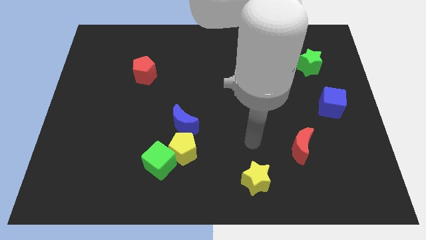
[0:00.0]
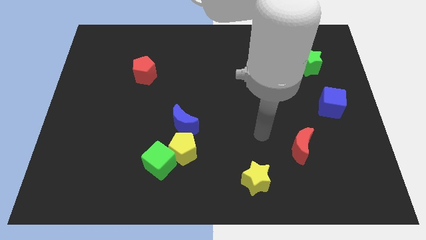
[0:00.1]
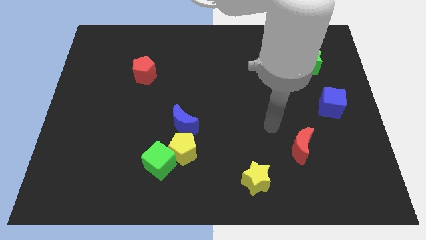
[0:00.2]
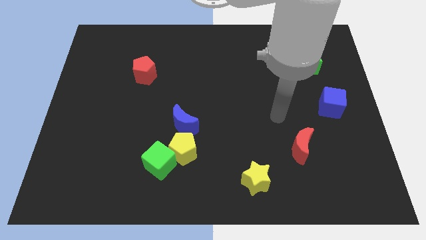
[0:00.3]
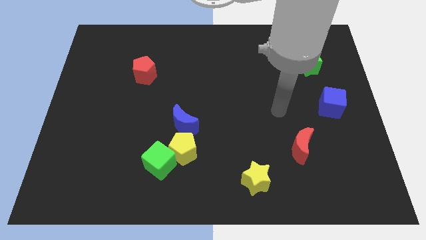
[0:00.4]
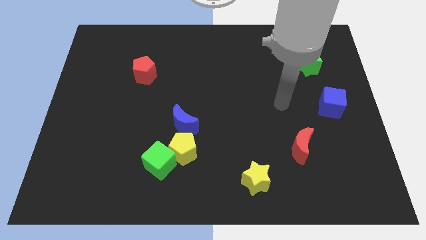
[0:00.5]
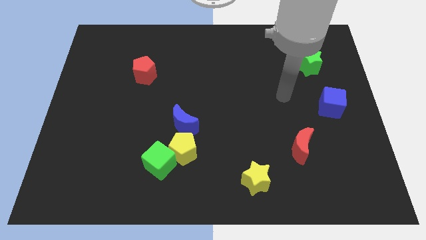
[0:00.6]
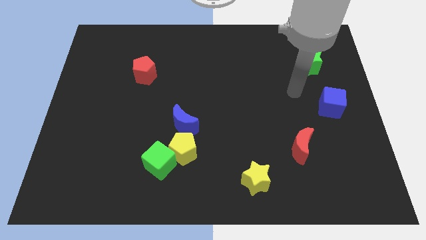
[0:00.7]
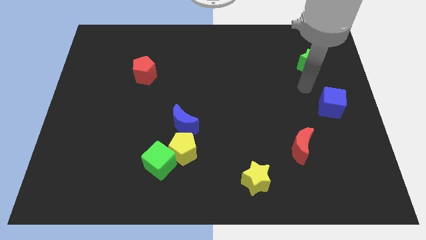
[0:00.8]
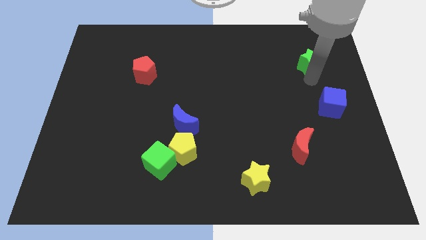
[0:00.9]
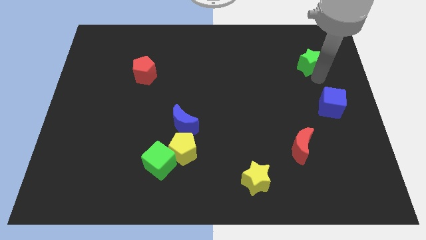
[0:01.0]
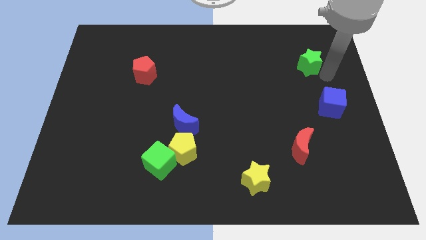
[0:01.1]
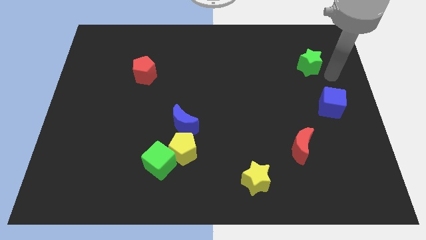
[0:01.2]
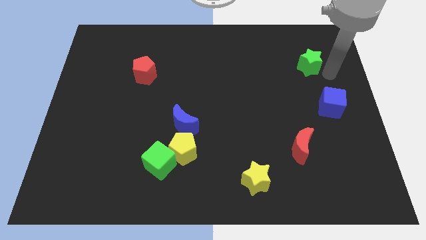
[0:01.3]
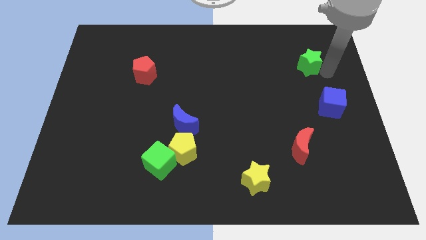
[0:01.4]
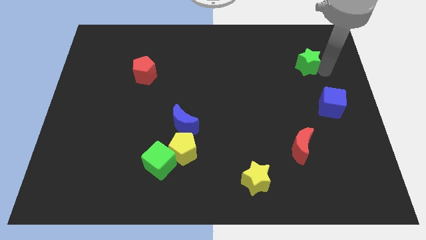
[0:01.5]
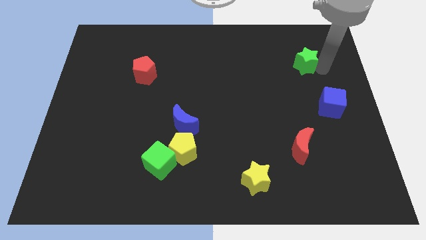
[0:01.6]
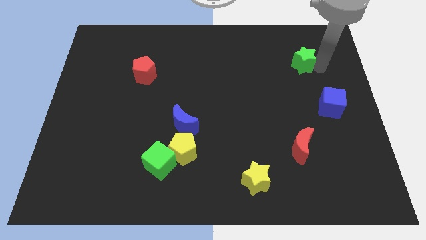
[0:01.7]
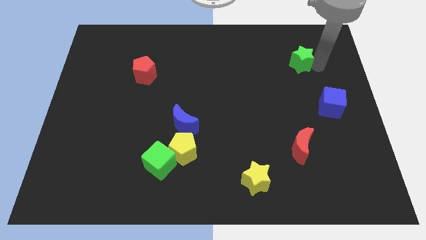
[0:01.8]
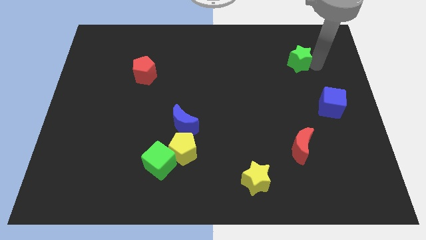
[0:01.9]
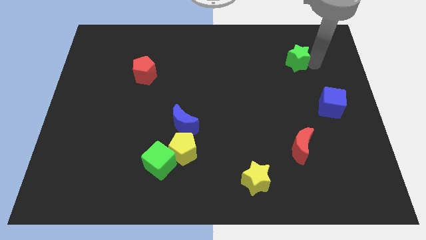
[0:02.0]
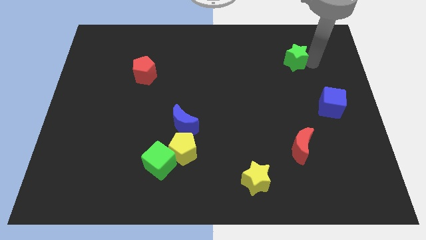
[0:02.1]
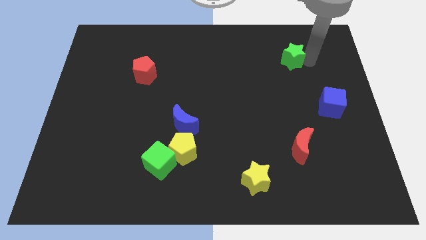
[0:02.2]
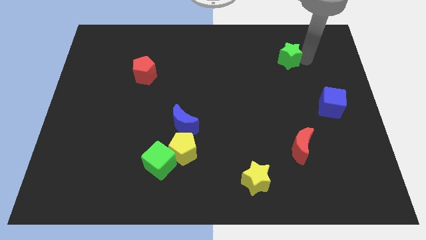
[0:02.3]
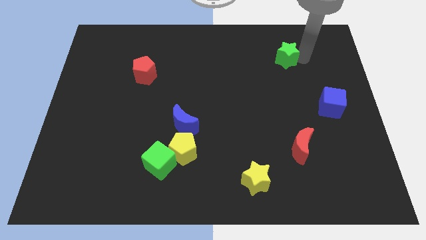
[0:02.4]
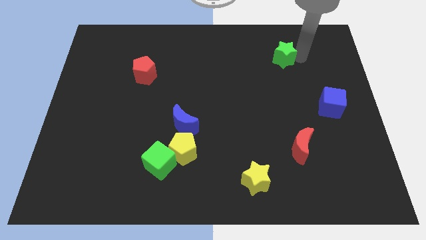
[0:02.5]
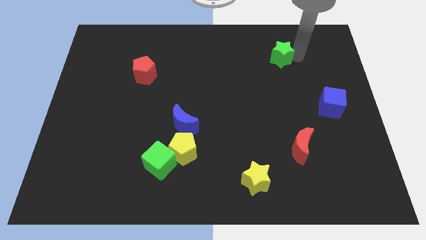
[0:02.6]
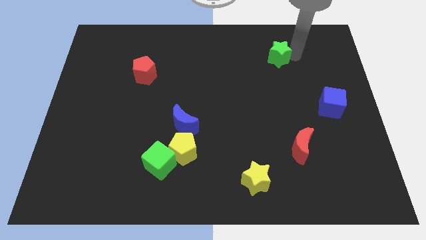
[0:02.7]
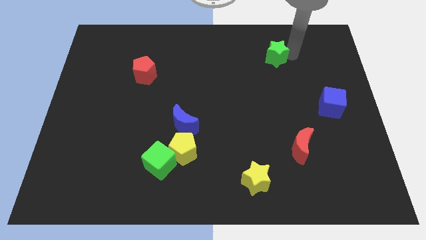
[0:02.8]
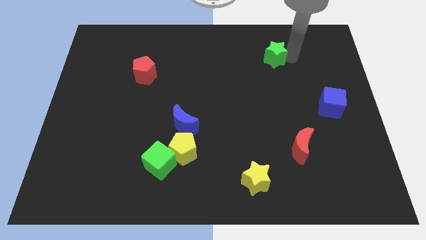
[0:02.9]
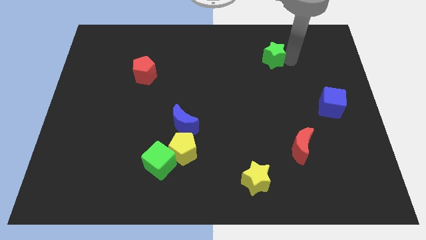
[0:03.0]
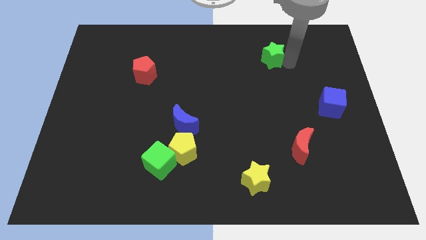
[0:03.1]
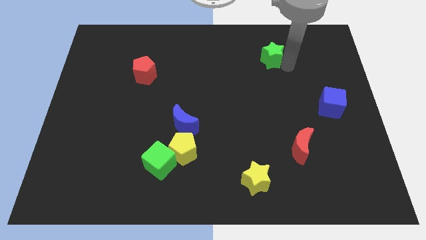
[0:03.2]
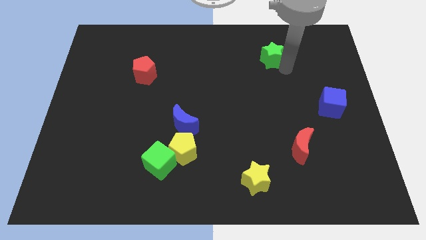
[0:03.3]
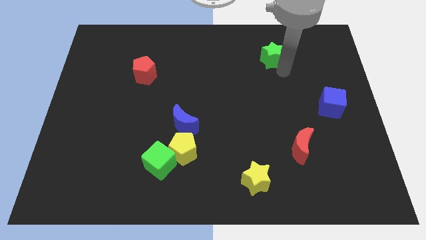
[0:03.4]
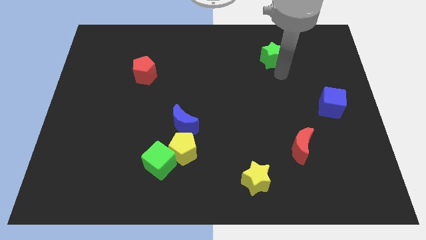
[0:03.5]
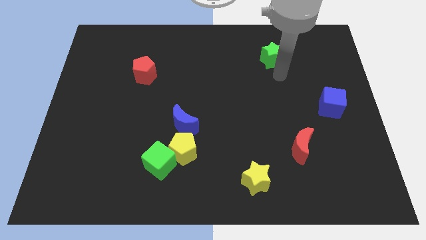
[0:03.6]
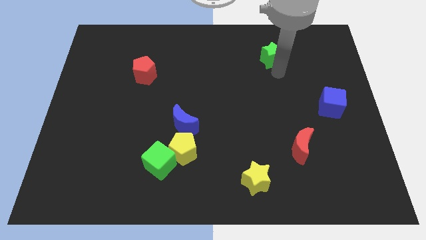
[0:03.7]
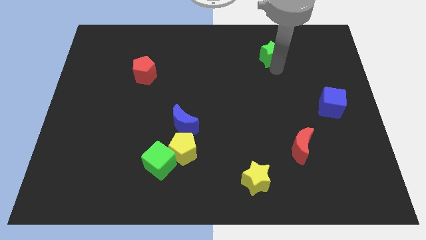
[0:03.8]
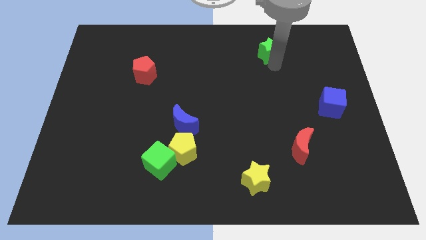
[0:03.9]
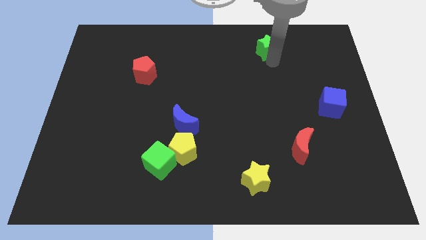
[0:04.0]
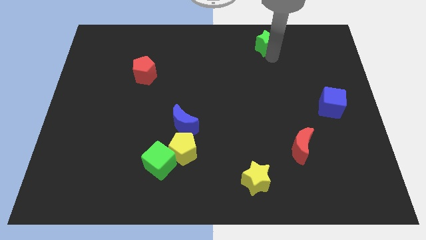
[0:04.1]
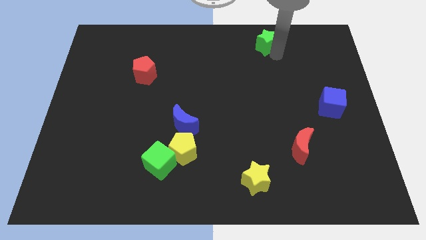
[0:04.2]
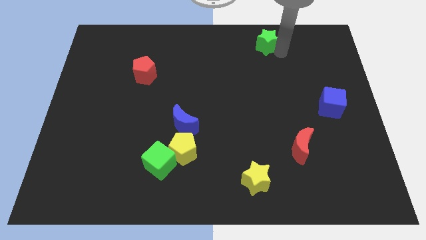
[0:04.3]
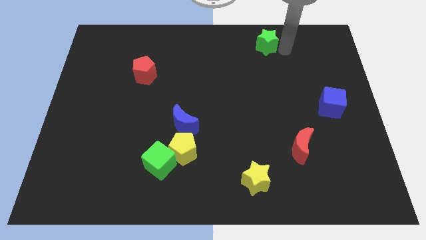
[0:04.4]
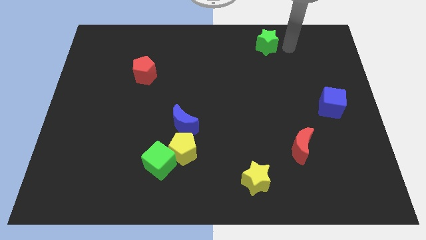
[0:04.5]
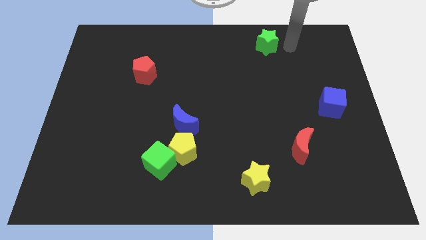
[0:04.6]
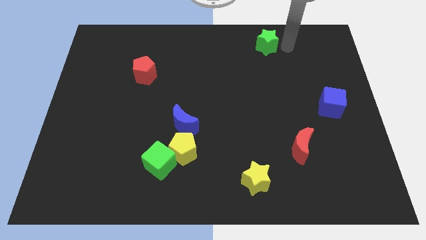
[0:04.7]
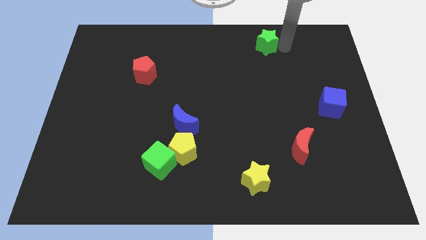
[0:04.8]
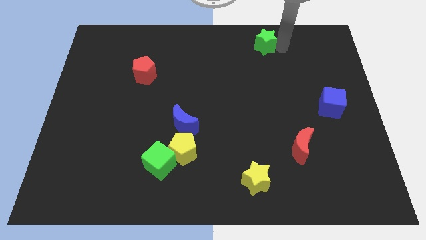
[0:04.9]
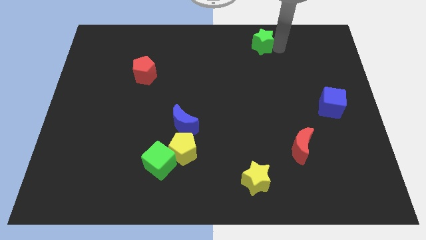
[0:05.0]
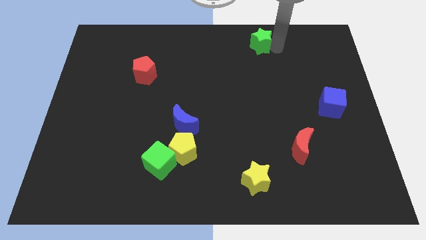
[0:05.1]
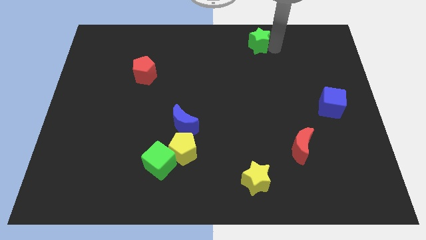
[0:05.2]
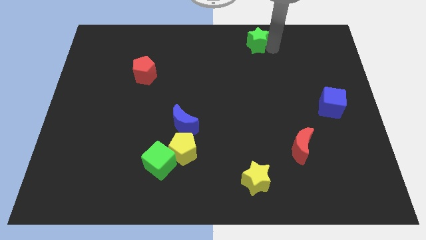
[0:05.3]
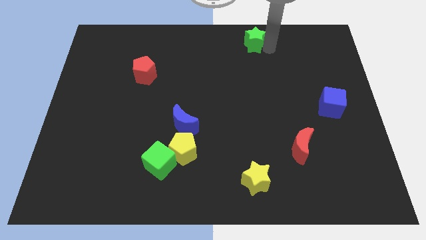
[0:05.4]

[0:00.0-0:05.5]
slide the green star to the top side

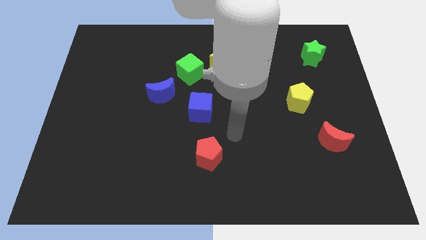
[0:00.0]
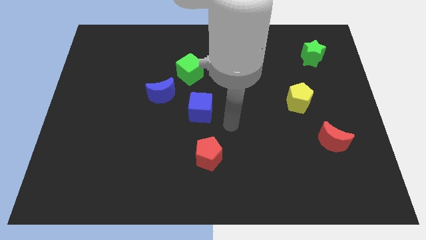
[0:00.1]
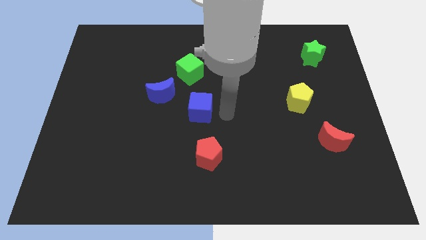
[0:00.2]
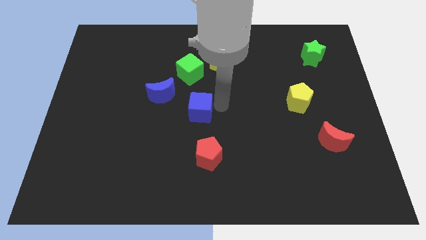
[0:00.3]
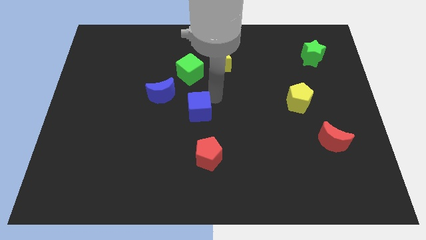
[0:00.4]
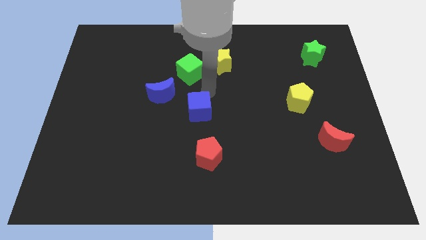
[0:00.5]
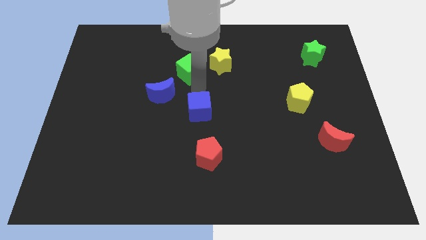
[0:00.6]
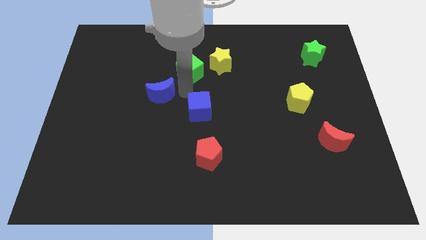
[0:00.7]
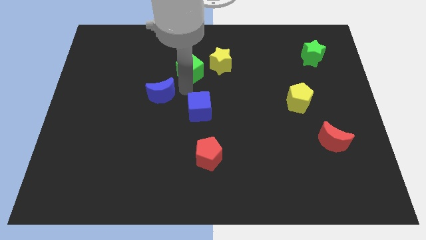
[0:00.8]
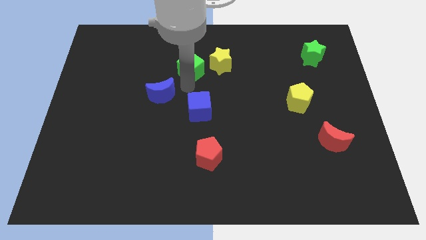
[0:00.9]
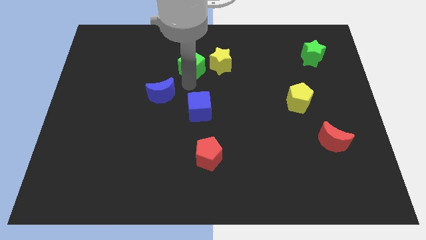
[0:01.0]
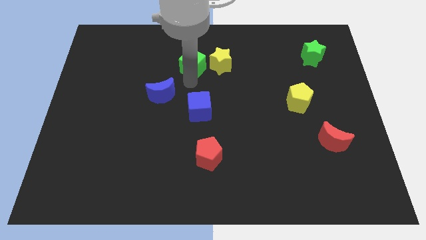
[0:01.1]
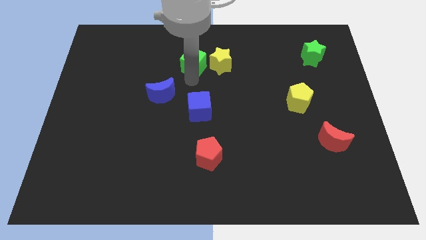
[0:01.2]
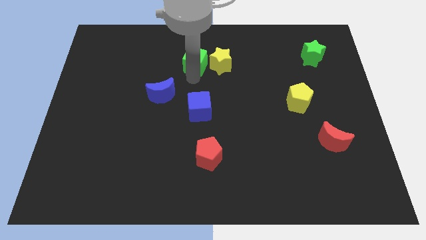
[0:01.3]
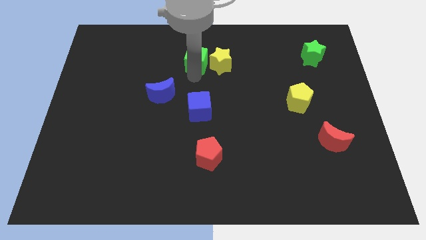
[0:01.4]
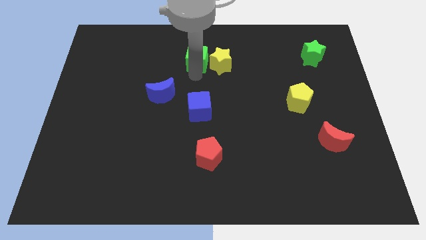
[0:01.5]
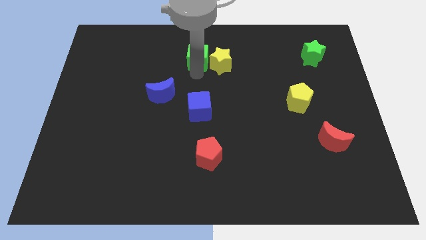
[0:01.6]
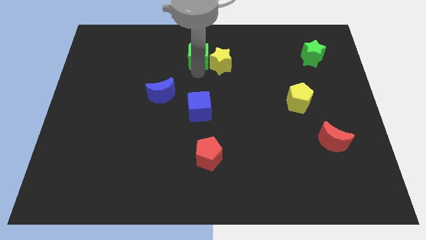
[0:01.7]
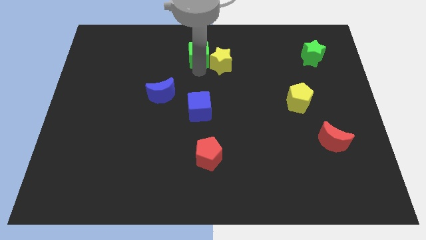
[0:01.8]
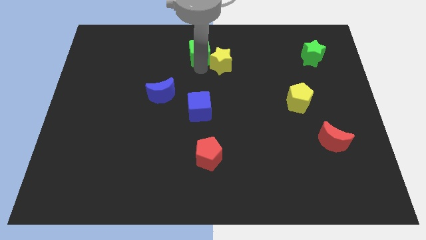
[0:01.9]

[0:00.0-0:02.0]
slide the green cube to the top
